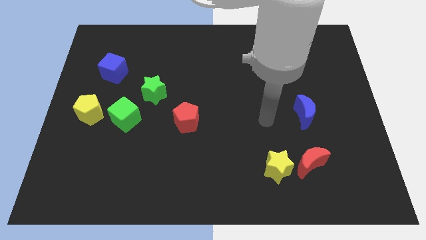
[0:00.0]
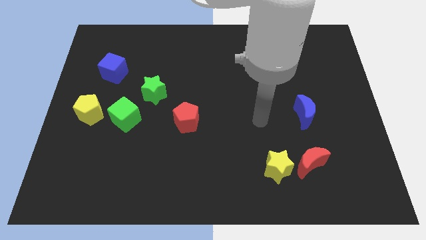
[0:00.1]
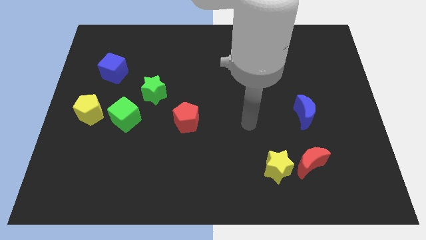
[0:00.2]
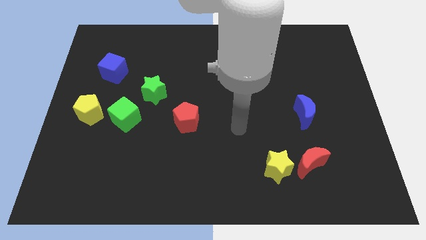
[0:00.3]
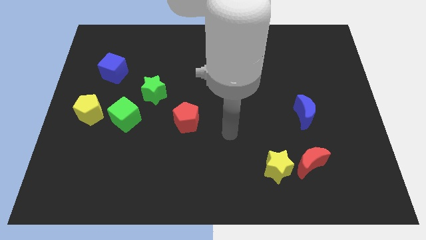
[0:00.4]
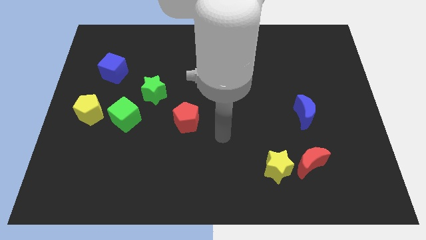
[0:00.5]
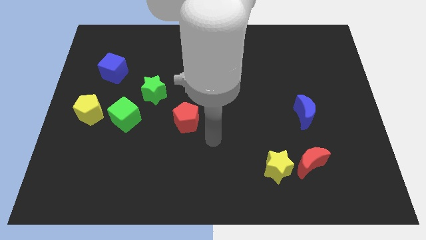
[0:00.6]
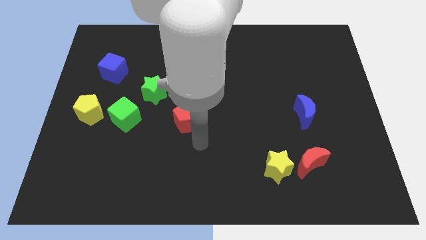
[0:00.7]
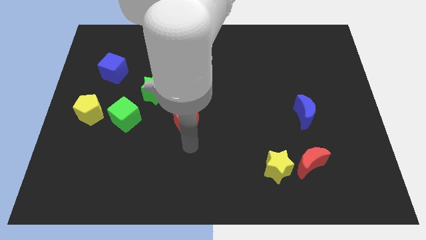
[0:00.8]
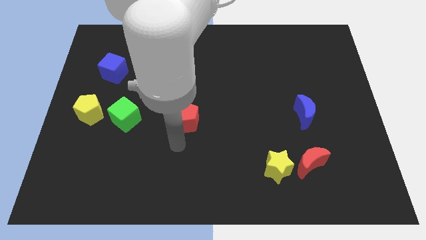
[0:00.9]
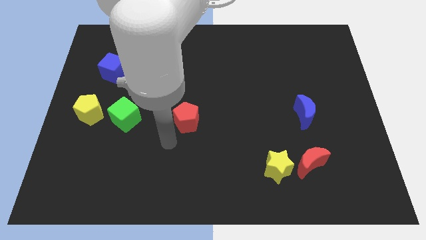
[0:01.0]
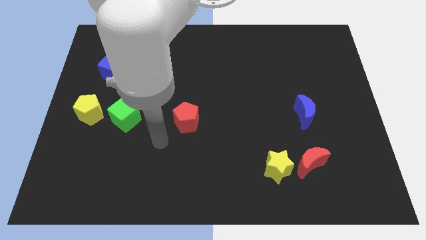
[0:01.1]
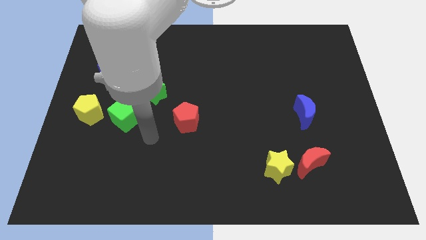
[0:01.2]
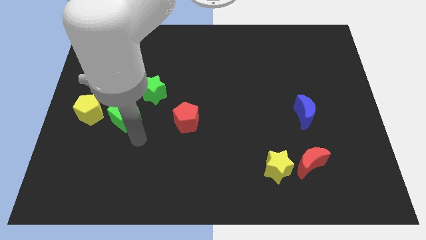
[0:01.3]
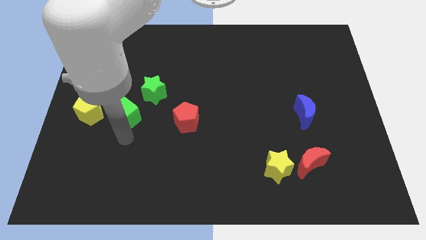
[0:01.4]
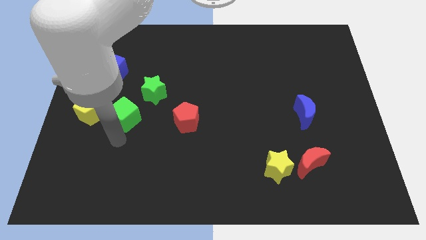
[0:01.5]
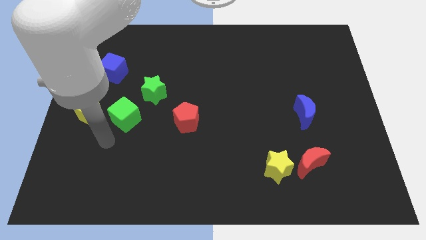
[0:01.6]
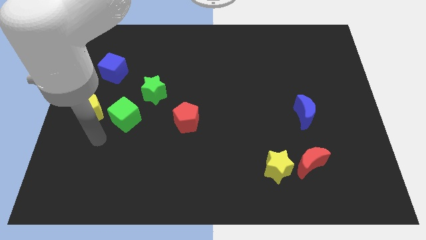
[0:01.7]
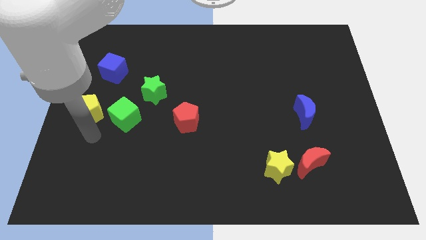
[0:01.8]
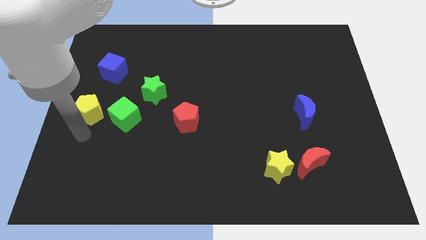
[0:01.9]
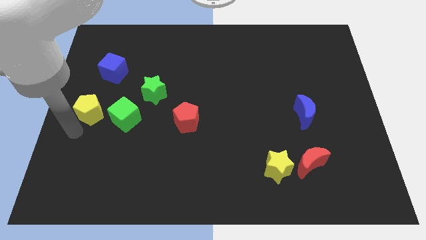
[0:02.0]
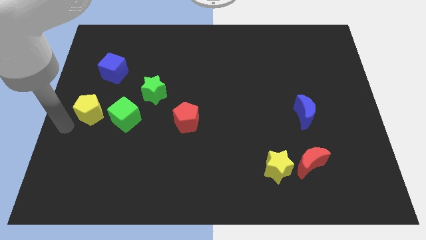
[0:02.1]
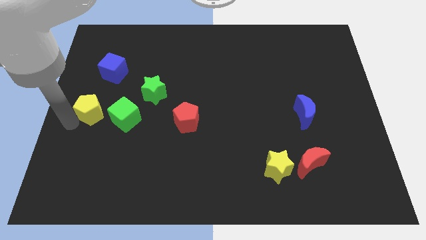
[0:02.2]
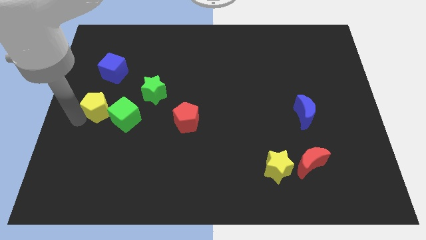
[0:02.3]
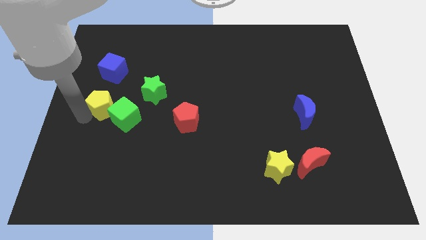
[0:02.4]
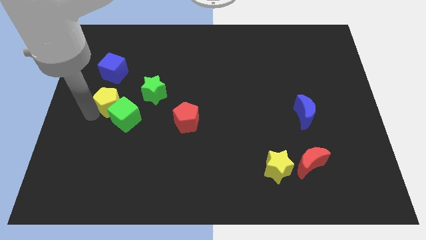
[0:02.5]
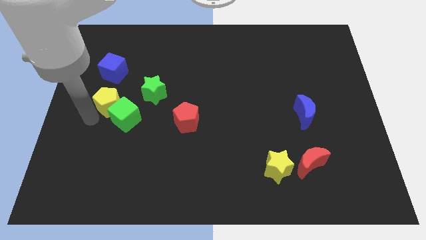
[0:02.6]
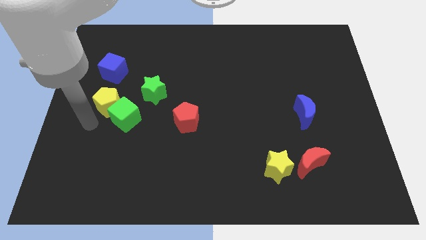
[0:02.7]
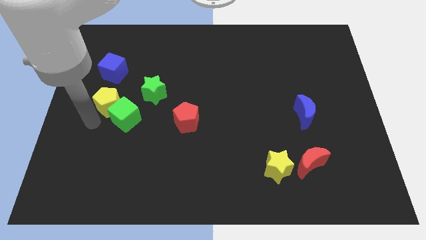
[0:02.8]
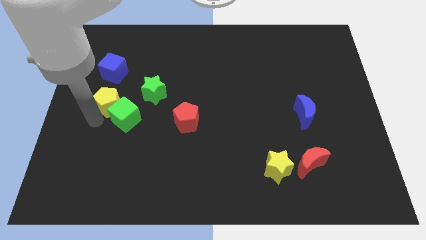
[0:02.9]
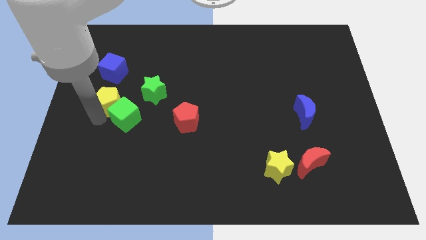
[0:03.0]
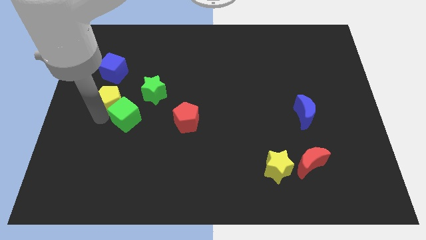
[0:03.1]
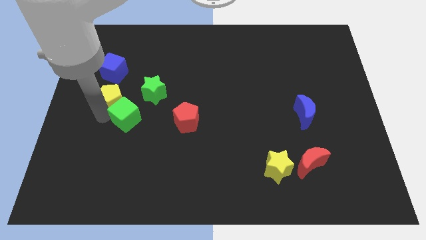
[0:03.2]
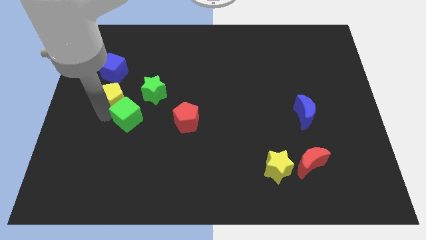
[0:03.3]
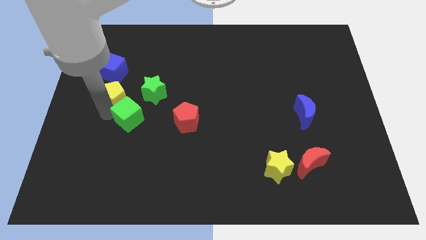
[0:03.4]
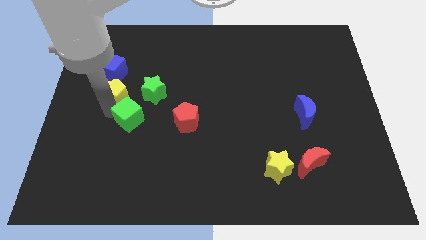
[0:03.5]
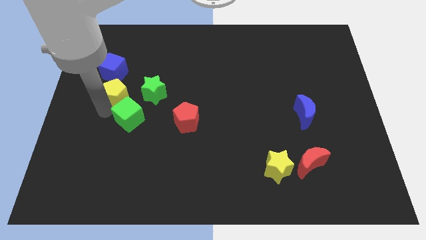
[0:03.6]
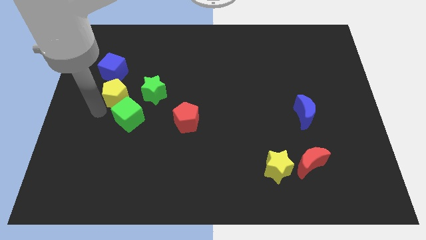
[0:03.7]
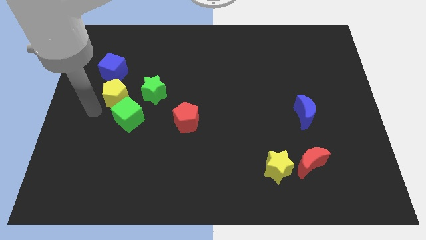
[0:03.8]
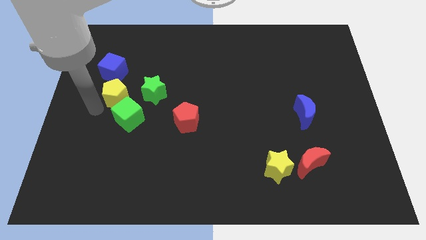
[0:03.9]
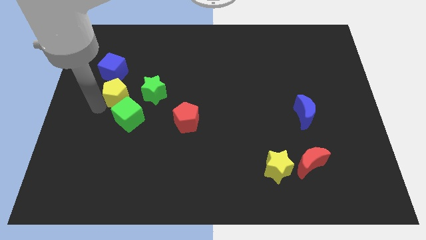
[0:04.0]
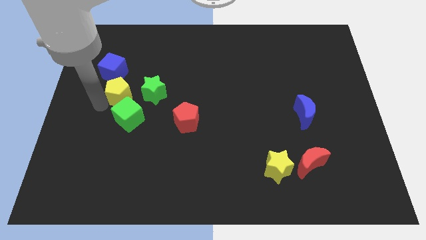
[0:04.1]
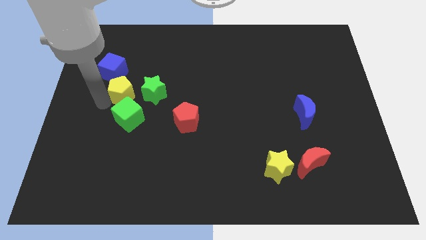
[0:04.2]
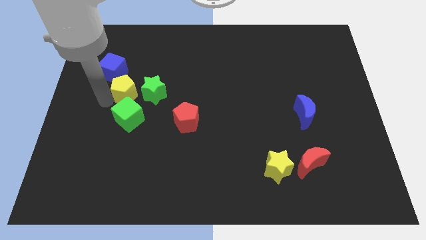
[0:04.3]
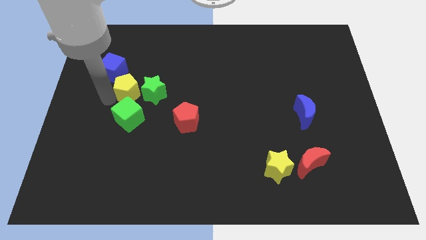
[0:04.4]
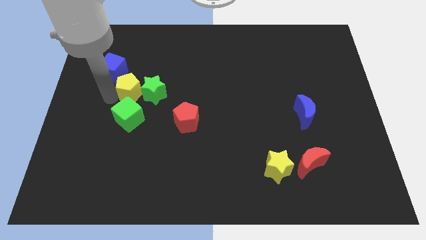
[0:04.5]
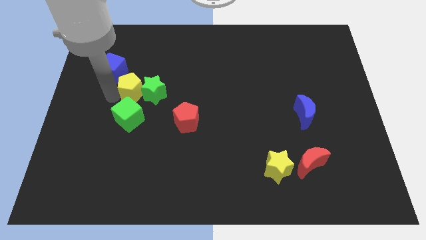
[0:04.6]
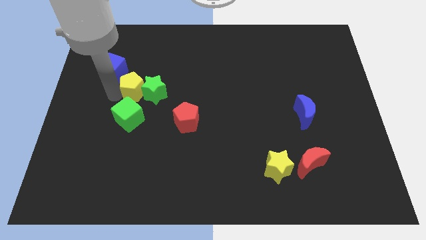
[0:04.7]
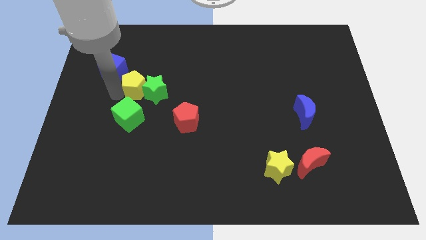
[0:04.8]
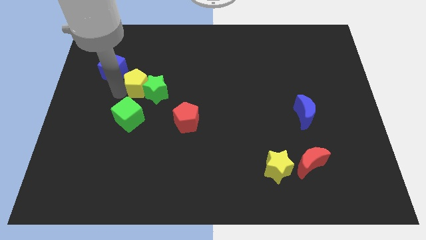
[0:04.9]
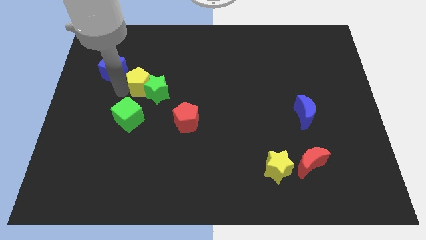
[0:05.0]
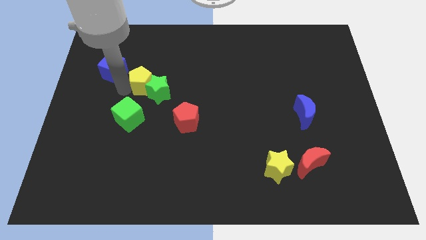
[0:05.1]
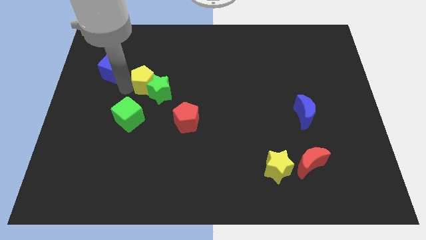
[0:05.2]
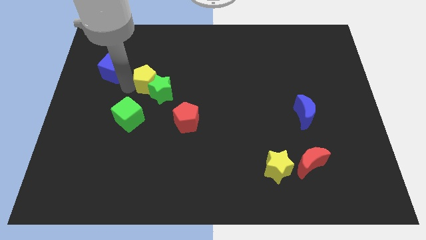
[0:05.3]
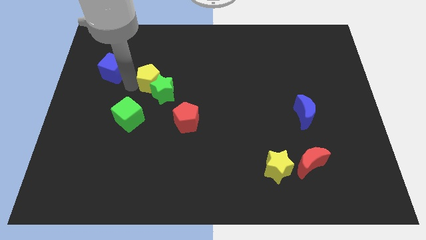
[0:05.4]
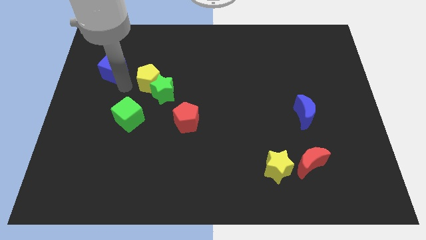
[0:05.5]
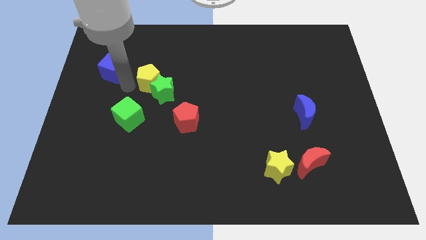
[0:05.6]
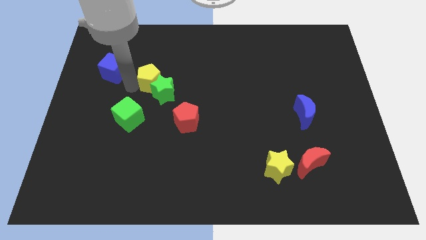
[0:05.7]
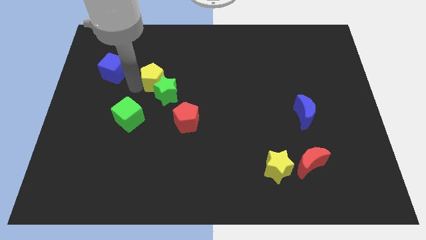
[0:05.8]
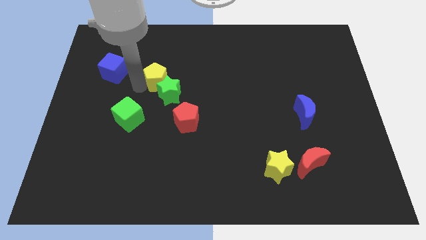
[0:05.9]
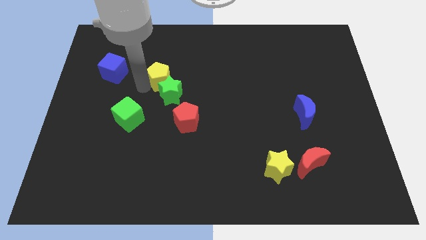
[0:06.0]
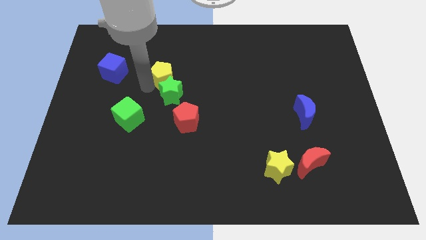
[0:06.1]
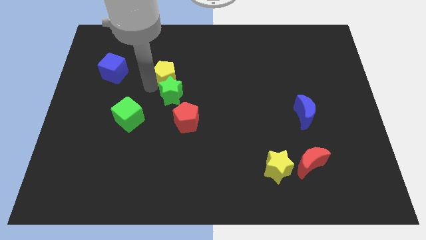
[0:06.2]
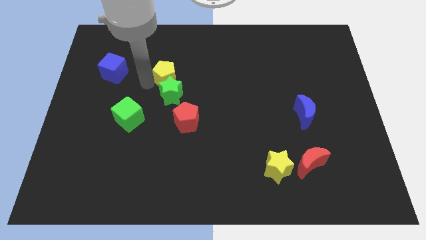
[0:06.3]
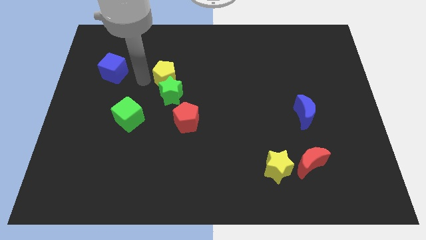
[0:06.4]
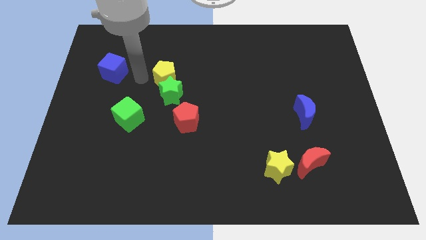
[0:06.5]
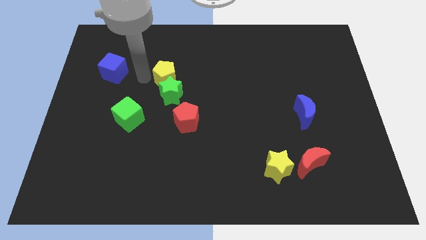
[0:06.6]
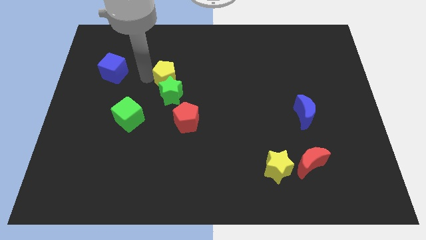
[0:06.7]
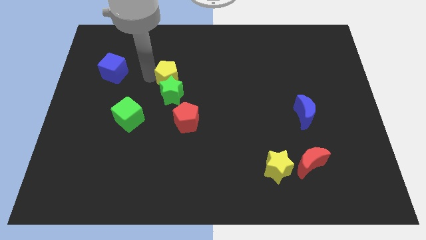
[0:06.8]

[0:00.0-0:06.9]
put the yellow pentagon to the top right side of the green star

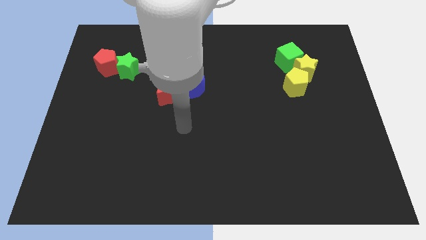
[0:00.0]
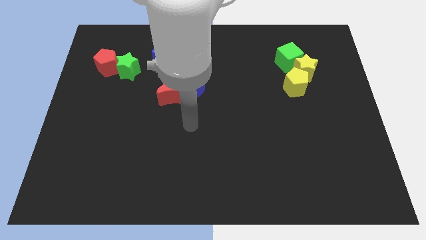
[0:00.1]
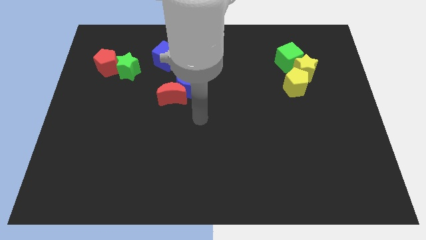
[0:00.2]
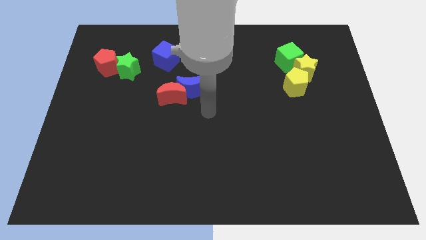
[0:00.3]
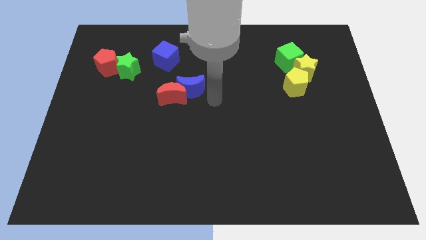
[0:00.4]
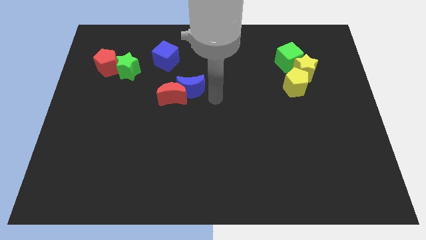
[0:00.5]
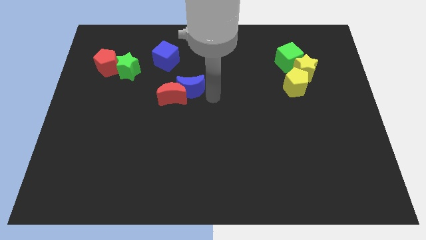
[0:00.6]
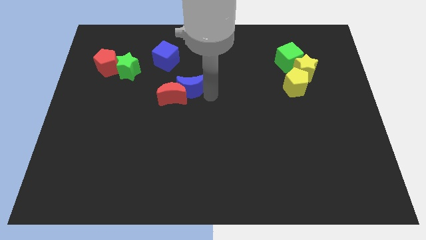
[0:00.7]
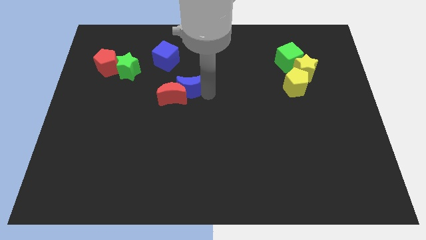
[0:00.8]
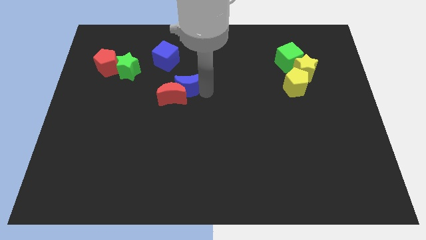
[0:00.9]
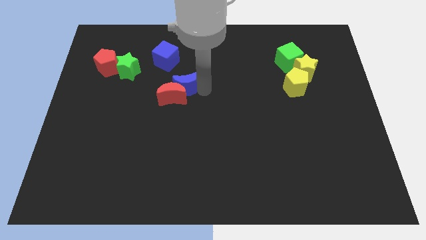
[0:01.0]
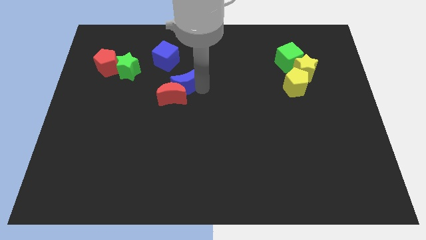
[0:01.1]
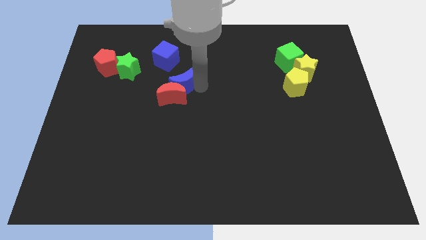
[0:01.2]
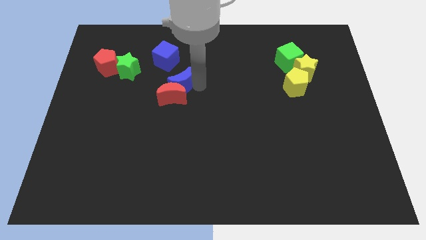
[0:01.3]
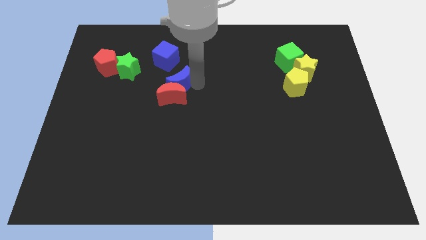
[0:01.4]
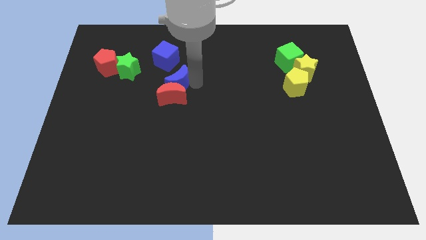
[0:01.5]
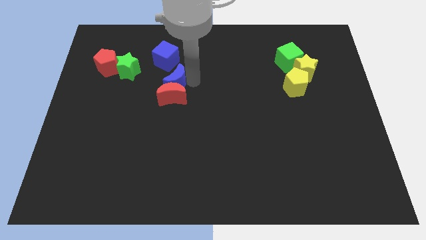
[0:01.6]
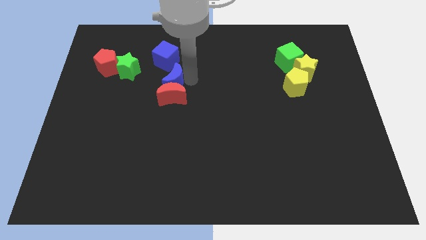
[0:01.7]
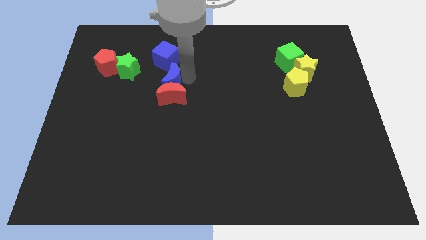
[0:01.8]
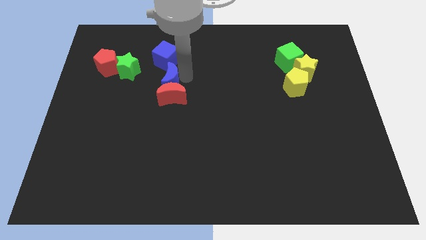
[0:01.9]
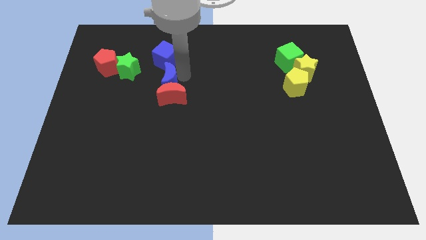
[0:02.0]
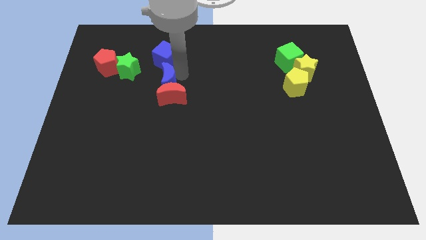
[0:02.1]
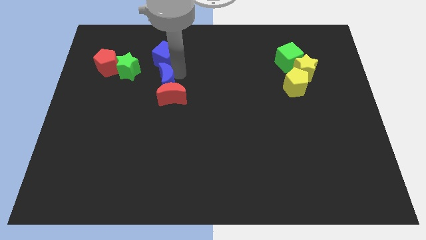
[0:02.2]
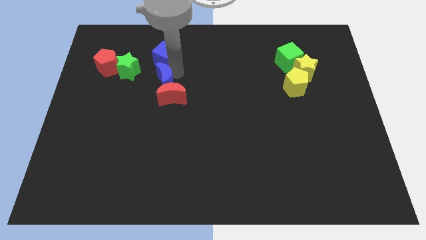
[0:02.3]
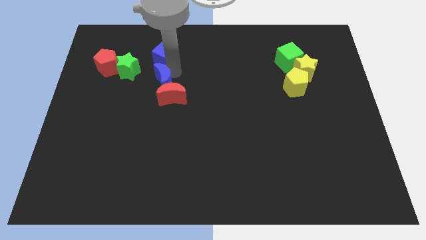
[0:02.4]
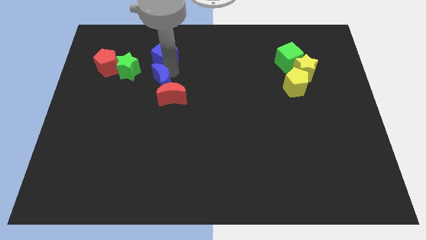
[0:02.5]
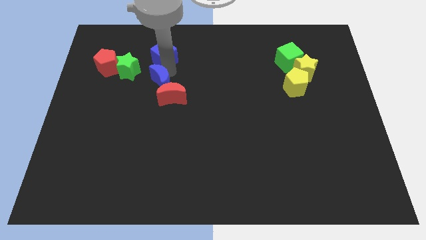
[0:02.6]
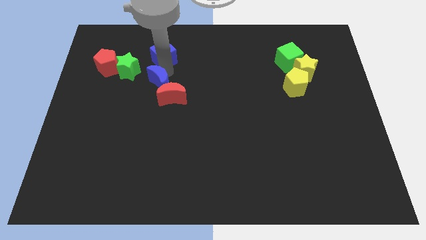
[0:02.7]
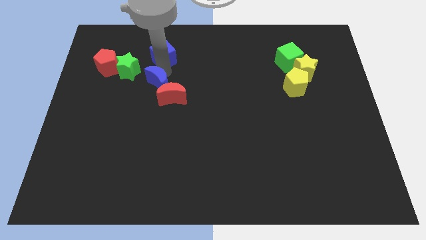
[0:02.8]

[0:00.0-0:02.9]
push the blue moon to the left of the red moon
